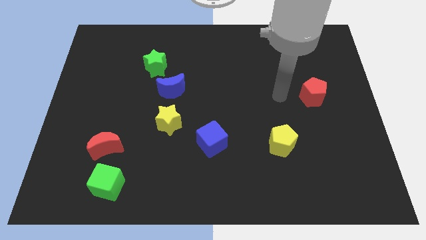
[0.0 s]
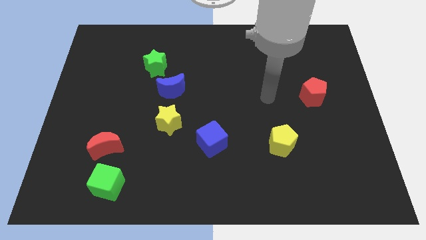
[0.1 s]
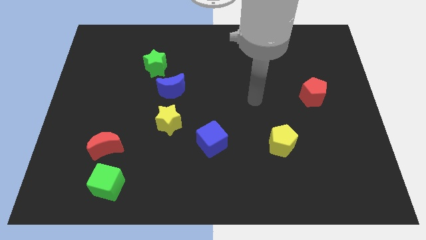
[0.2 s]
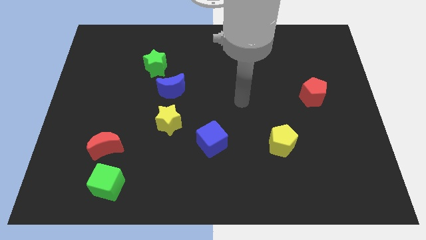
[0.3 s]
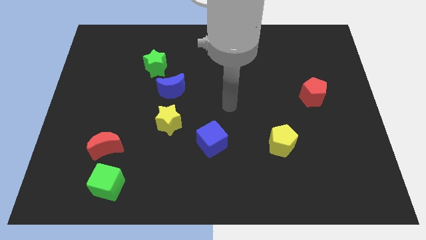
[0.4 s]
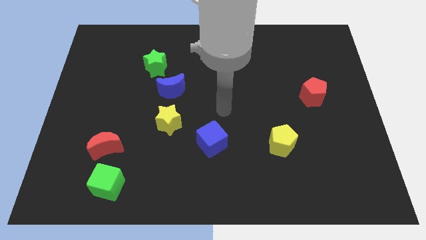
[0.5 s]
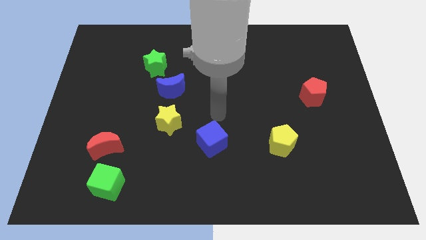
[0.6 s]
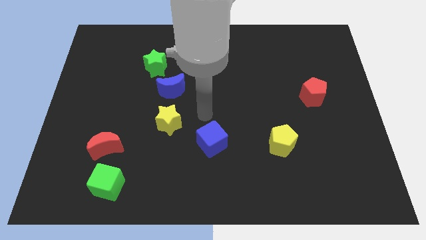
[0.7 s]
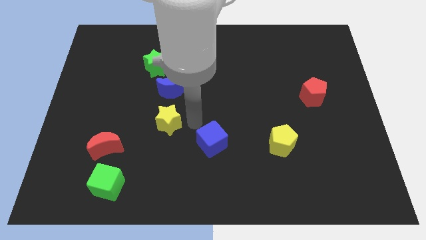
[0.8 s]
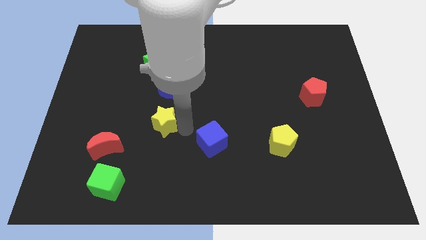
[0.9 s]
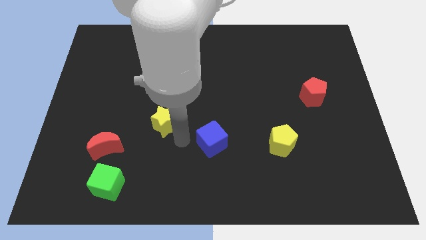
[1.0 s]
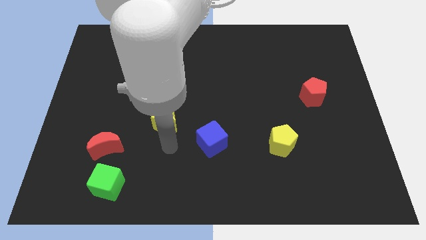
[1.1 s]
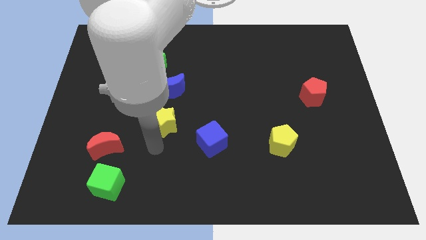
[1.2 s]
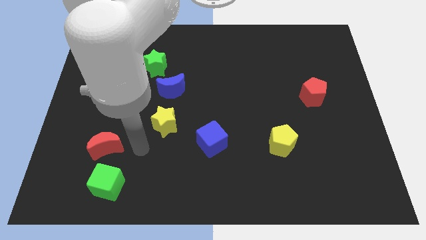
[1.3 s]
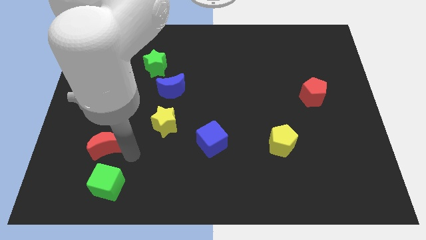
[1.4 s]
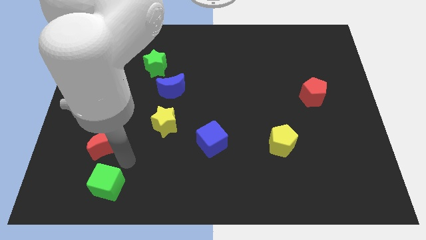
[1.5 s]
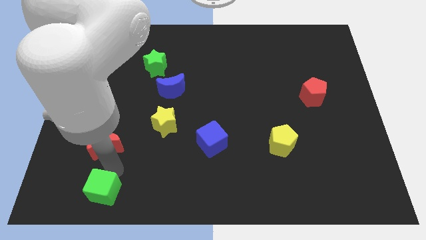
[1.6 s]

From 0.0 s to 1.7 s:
move the red moon away from the green cube

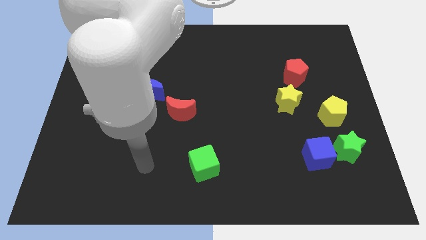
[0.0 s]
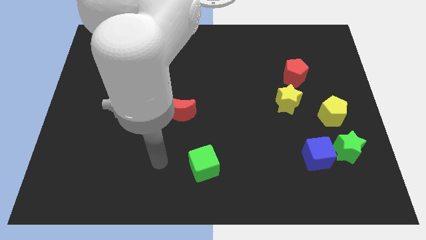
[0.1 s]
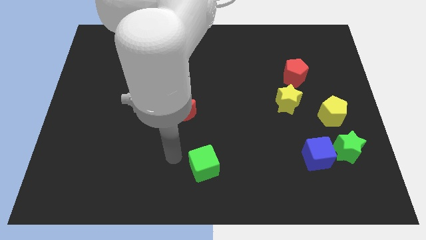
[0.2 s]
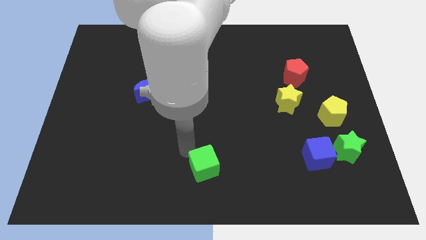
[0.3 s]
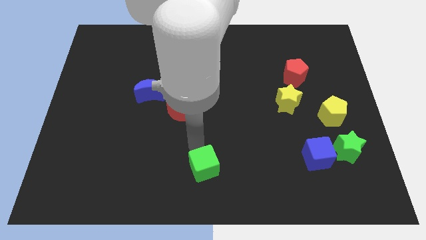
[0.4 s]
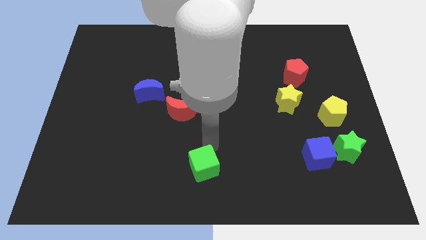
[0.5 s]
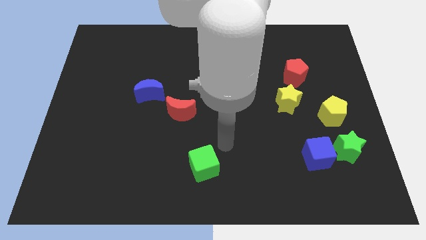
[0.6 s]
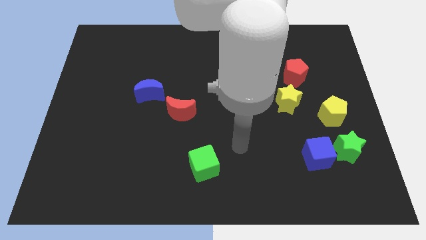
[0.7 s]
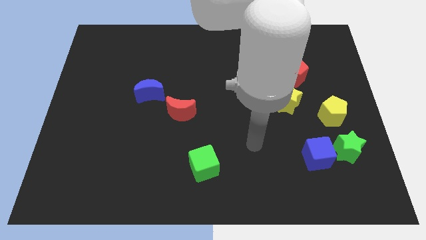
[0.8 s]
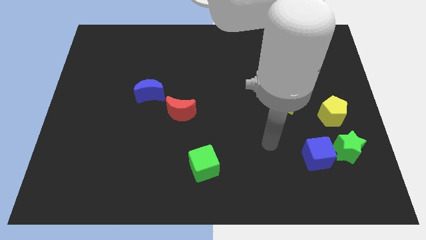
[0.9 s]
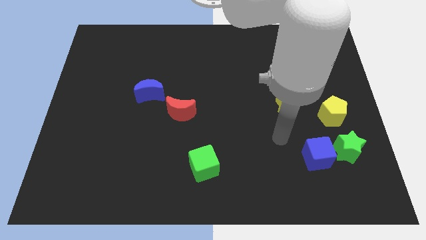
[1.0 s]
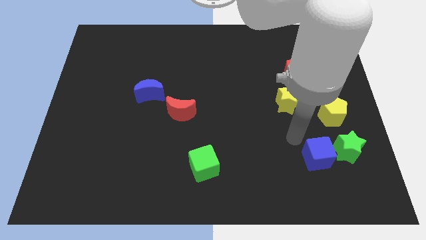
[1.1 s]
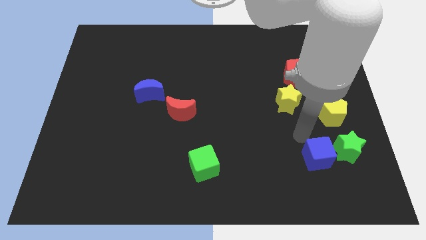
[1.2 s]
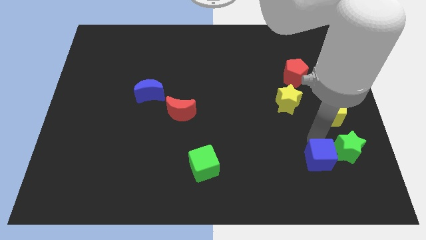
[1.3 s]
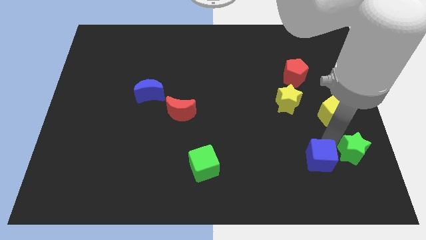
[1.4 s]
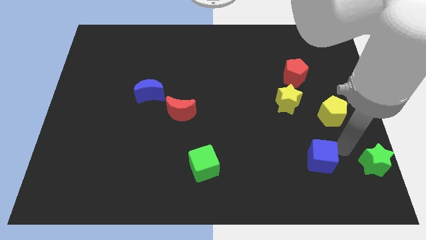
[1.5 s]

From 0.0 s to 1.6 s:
pull the blue cube apart from the green star

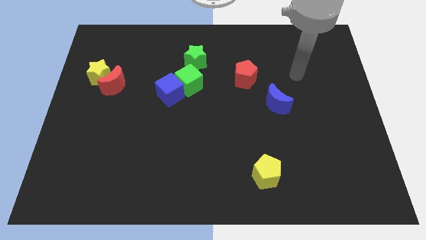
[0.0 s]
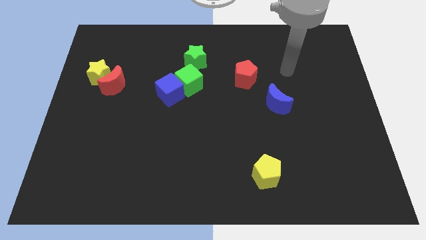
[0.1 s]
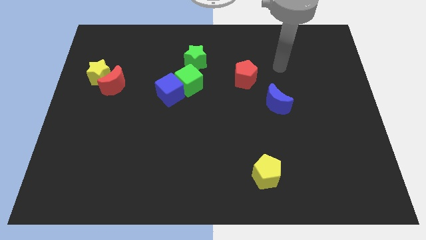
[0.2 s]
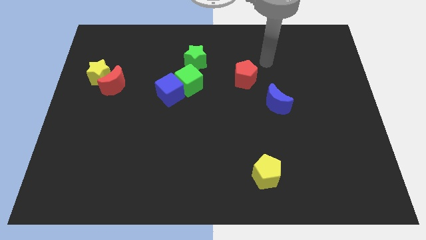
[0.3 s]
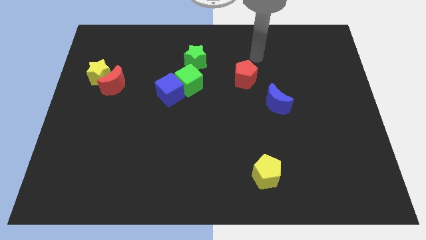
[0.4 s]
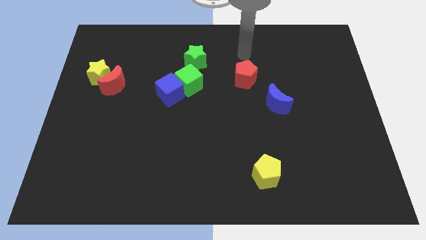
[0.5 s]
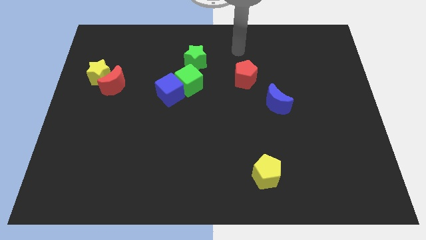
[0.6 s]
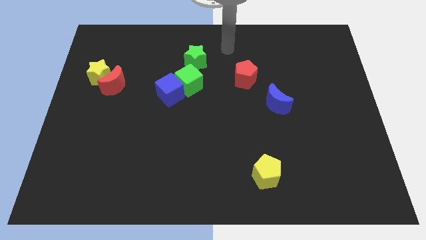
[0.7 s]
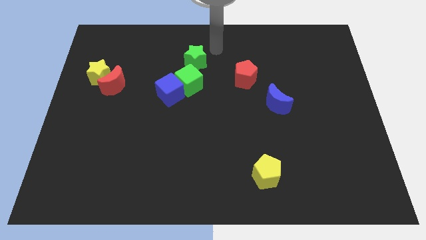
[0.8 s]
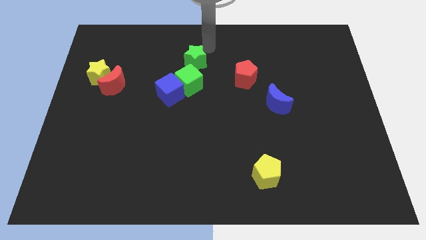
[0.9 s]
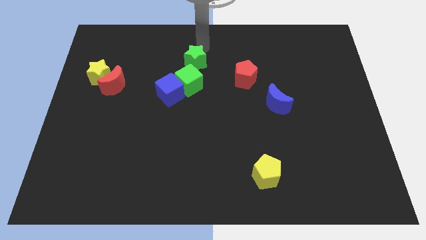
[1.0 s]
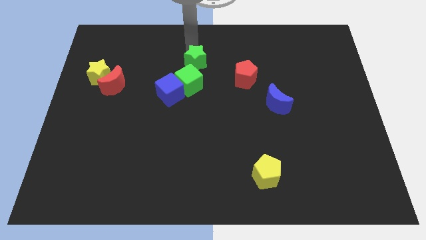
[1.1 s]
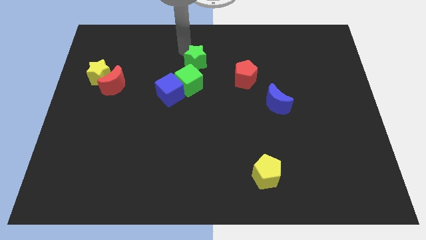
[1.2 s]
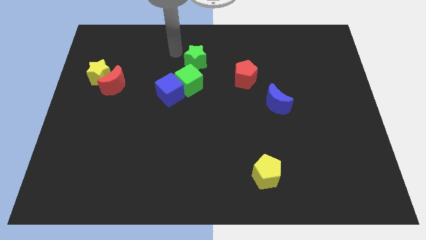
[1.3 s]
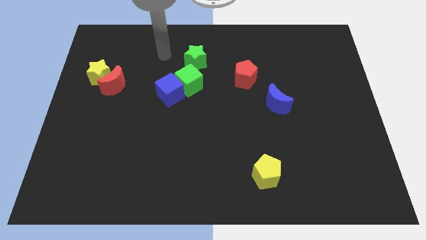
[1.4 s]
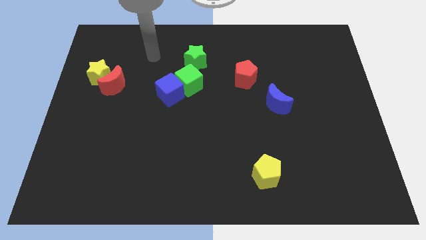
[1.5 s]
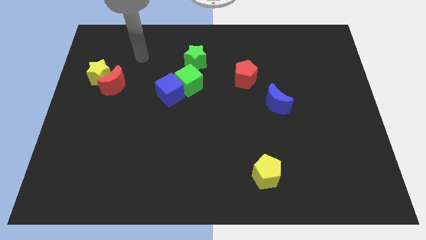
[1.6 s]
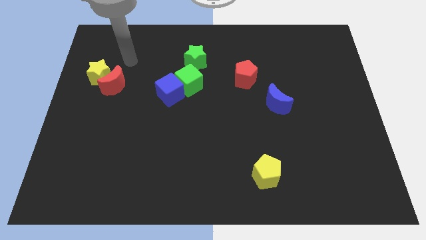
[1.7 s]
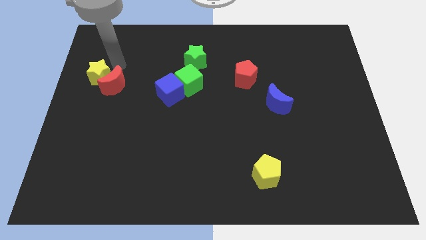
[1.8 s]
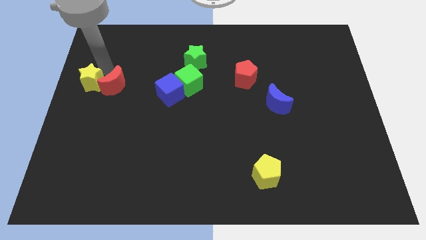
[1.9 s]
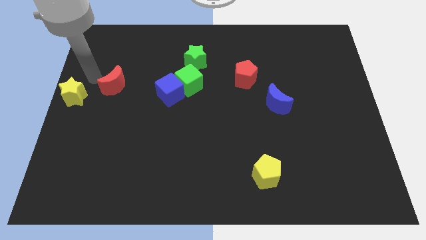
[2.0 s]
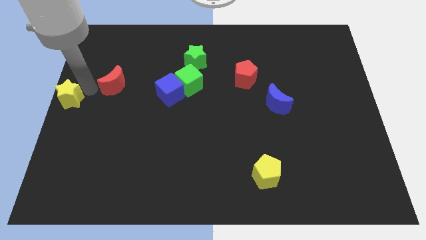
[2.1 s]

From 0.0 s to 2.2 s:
pull the red moon apart from the yellow star

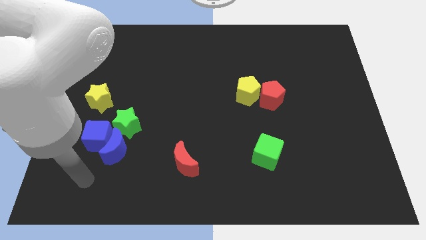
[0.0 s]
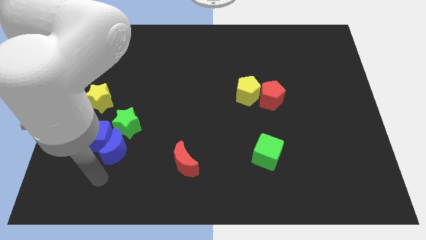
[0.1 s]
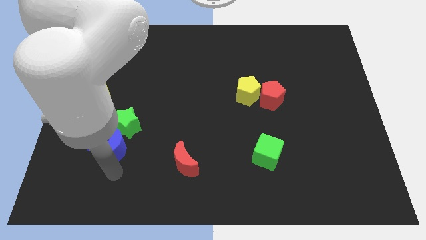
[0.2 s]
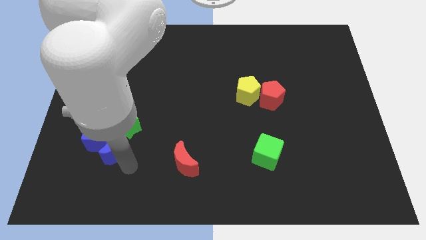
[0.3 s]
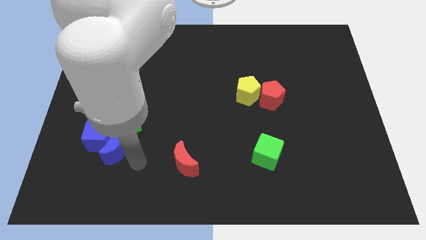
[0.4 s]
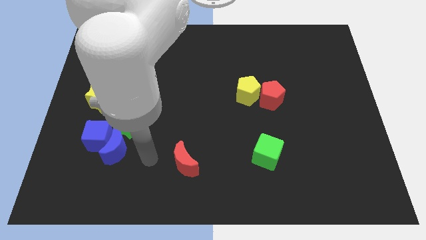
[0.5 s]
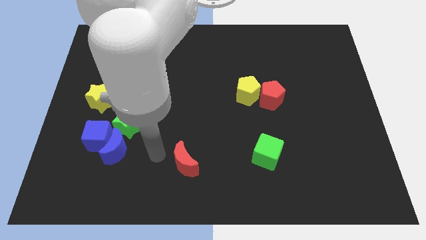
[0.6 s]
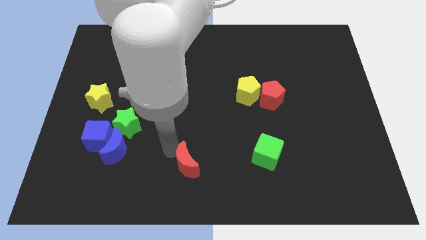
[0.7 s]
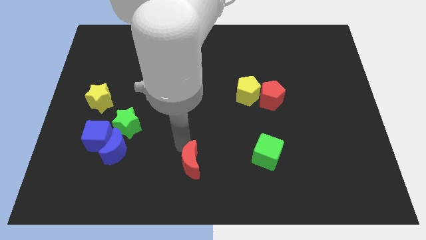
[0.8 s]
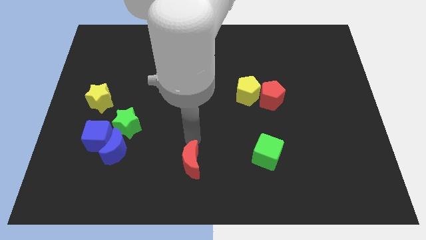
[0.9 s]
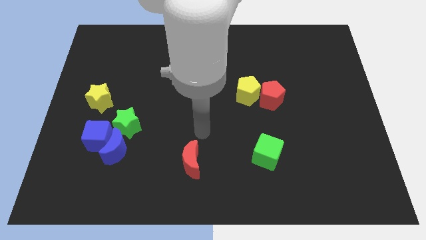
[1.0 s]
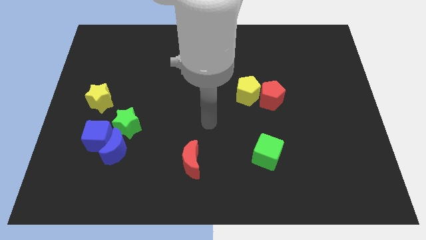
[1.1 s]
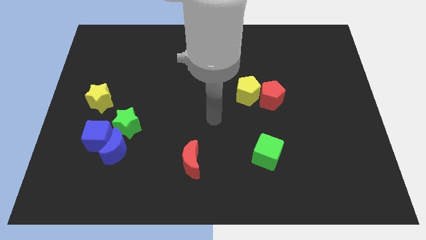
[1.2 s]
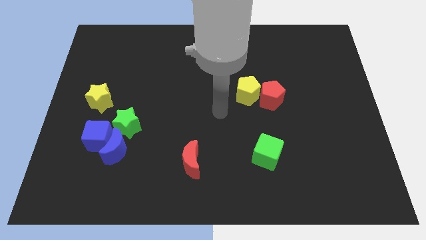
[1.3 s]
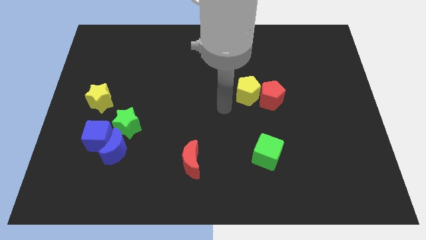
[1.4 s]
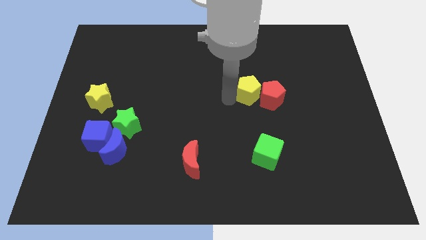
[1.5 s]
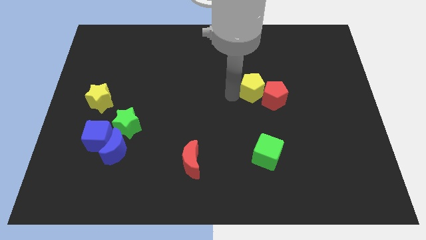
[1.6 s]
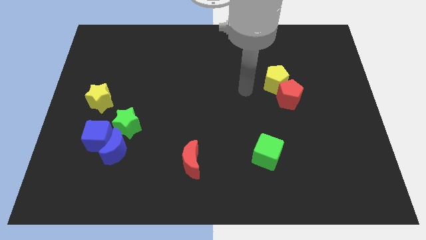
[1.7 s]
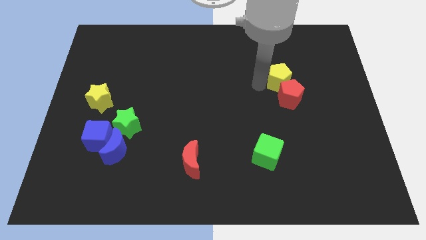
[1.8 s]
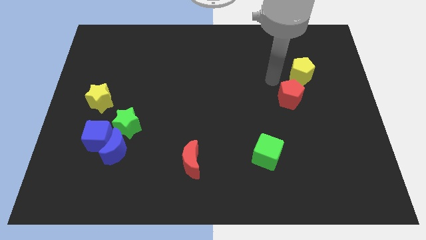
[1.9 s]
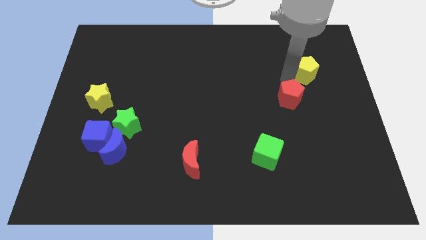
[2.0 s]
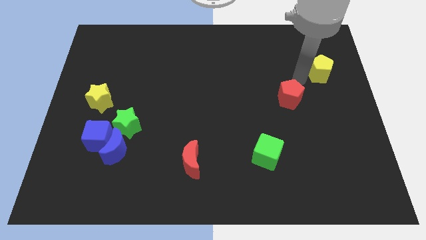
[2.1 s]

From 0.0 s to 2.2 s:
separate the red pentagon from the yellow pentagon

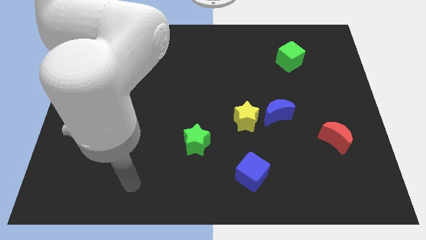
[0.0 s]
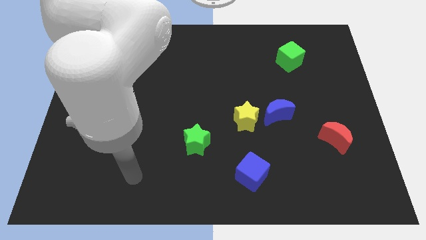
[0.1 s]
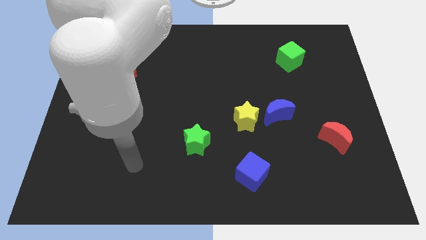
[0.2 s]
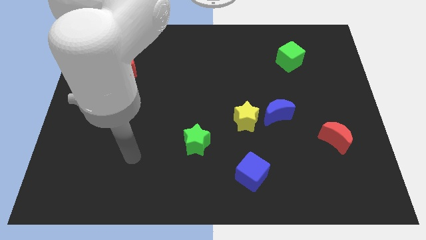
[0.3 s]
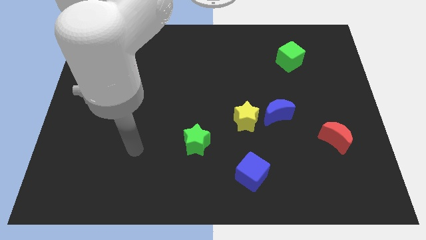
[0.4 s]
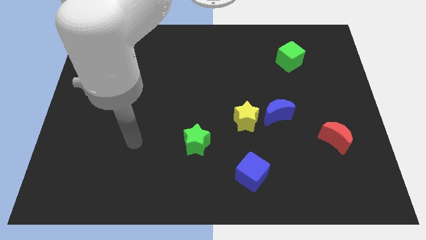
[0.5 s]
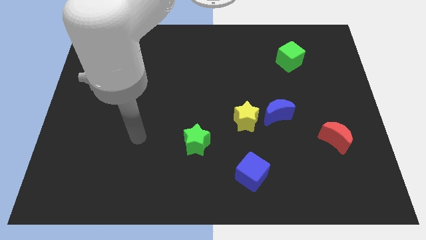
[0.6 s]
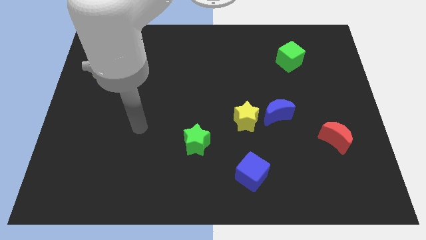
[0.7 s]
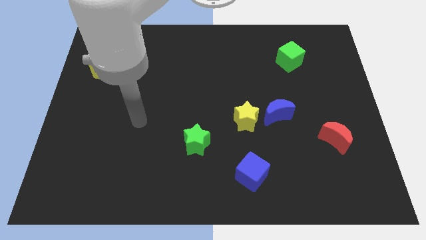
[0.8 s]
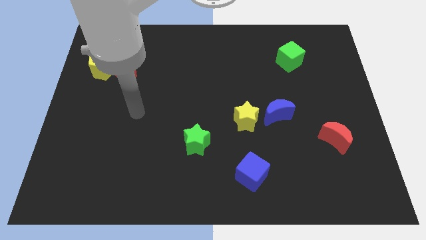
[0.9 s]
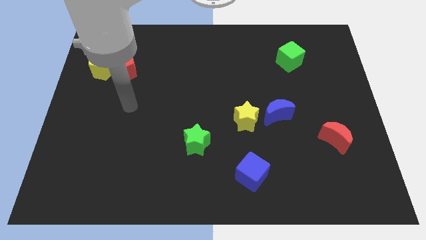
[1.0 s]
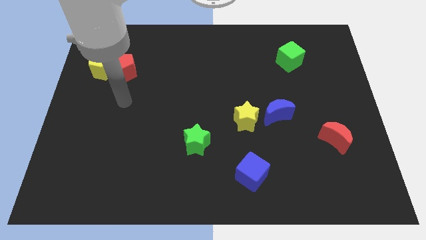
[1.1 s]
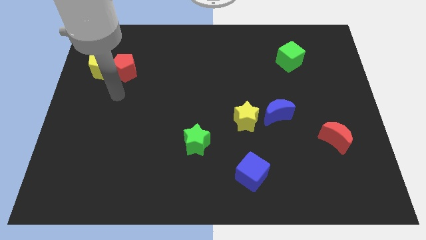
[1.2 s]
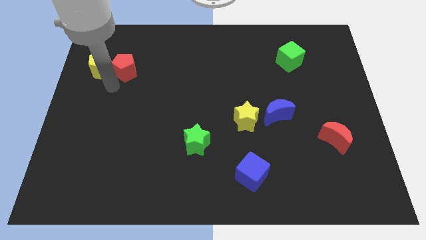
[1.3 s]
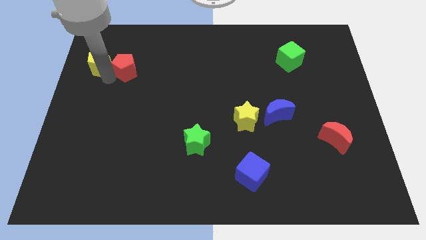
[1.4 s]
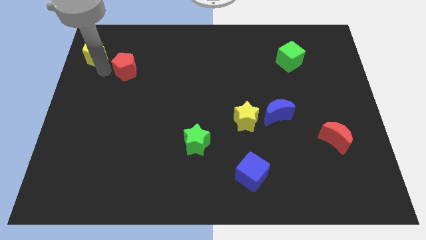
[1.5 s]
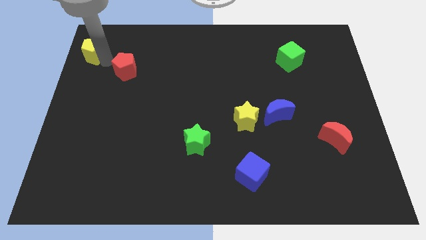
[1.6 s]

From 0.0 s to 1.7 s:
move the red pentagon away from the yellow pentagon
